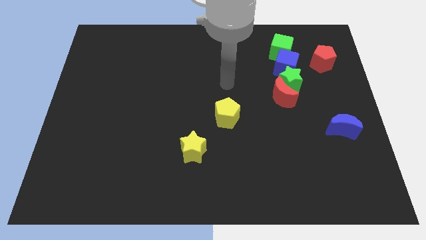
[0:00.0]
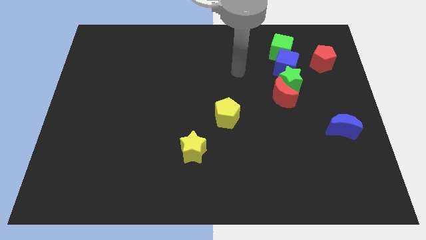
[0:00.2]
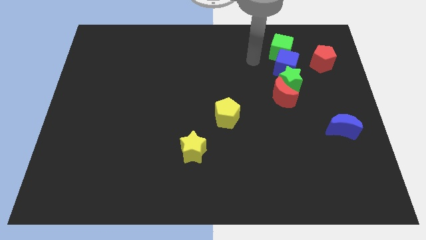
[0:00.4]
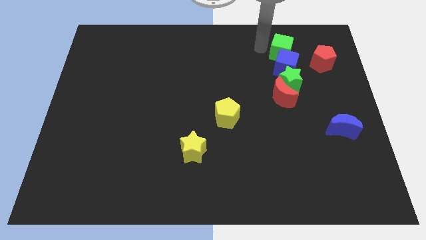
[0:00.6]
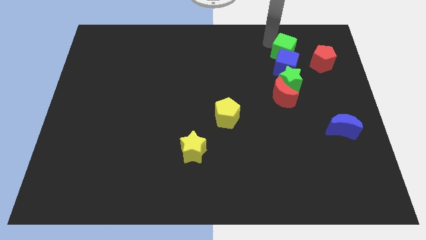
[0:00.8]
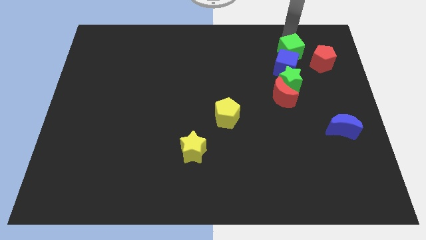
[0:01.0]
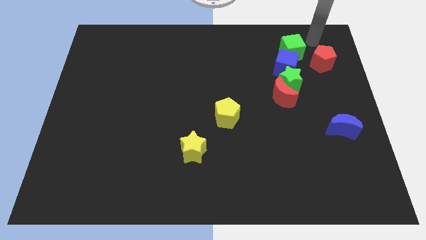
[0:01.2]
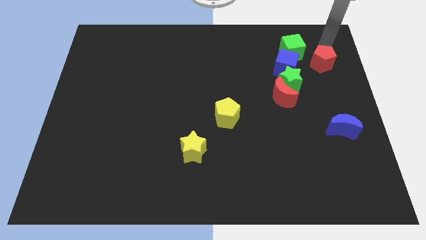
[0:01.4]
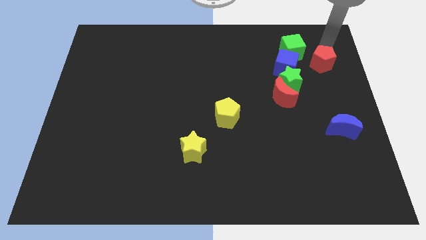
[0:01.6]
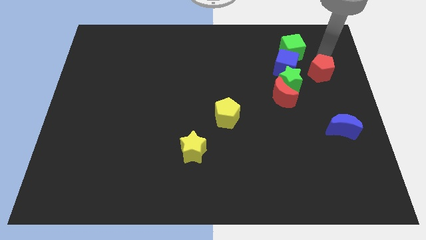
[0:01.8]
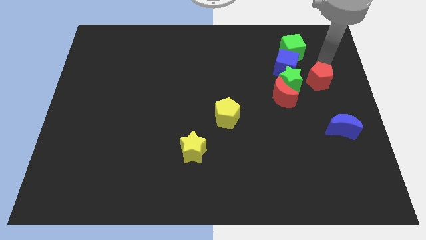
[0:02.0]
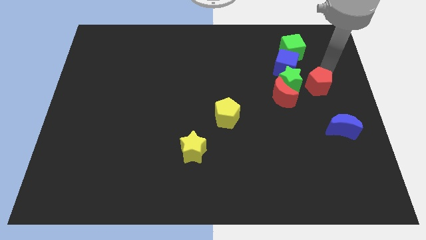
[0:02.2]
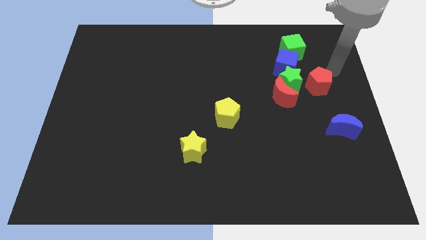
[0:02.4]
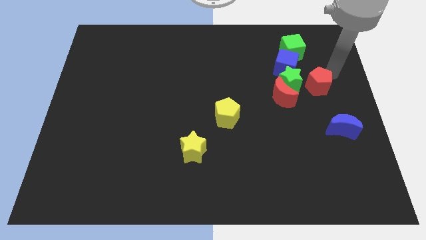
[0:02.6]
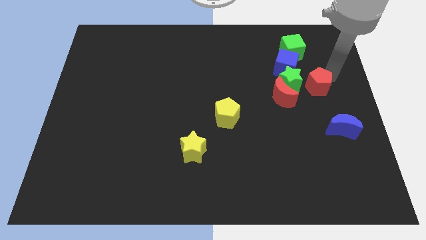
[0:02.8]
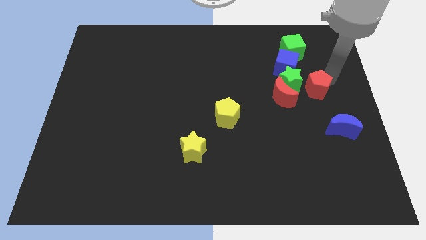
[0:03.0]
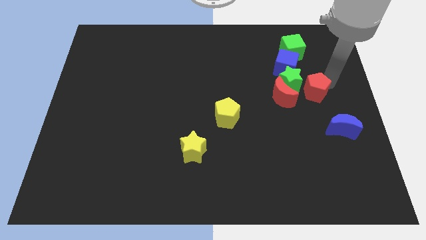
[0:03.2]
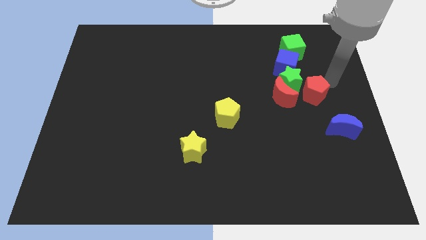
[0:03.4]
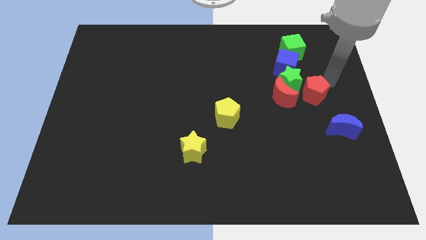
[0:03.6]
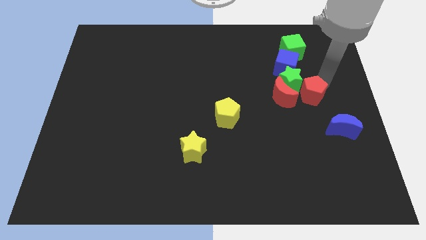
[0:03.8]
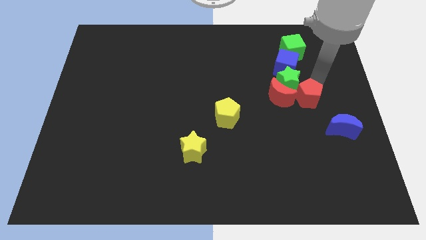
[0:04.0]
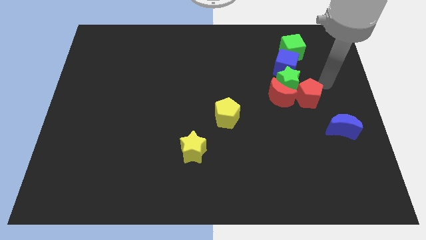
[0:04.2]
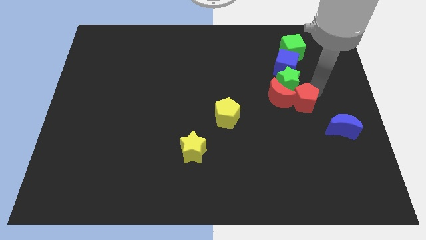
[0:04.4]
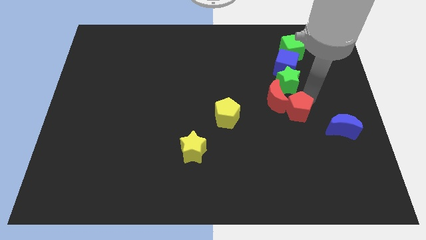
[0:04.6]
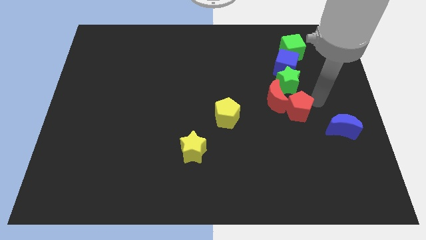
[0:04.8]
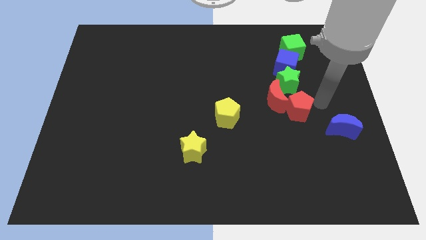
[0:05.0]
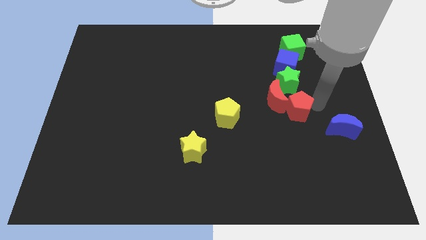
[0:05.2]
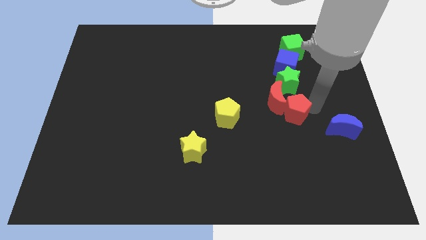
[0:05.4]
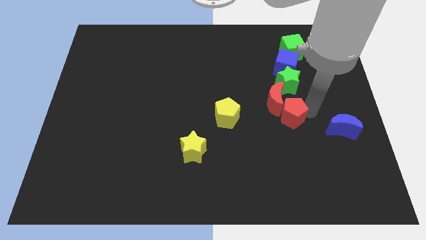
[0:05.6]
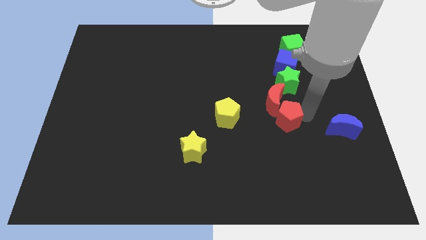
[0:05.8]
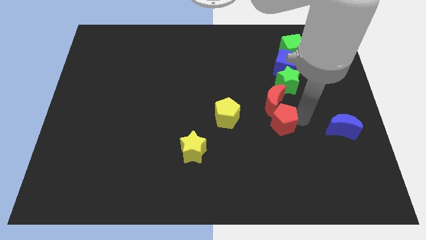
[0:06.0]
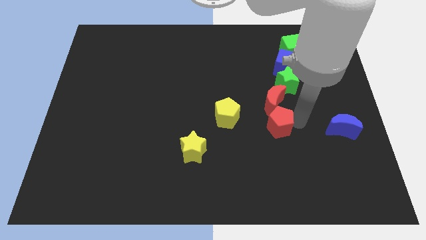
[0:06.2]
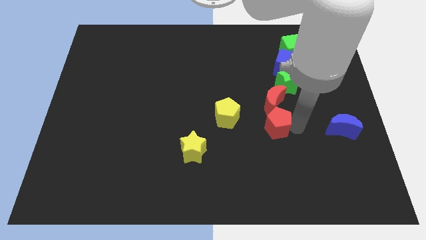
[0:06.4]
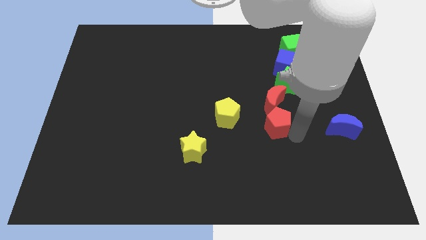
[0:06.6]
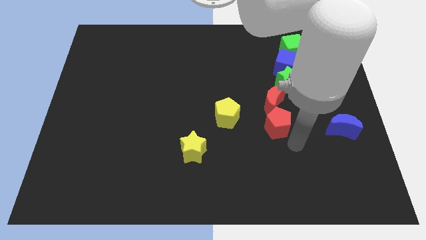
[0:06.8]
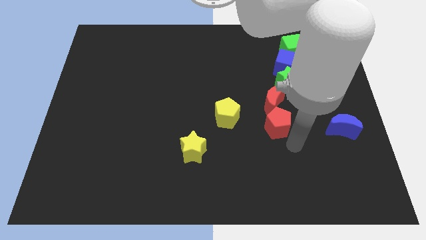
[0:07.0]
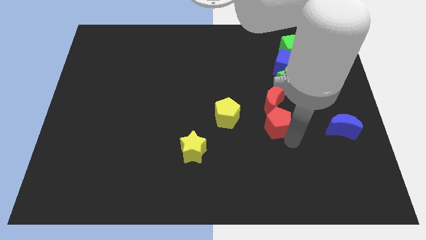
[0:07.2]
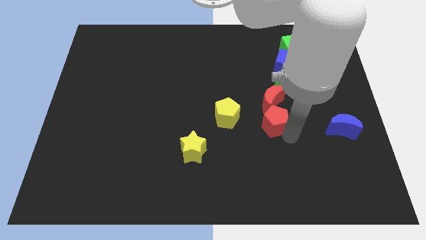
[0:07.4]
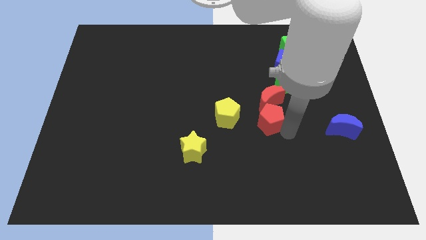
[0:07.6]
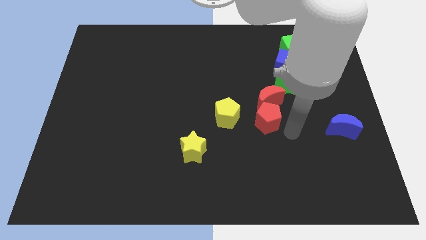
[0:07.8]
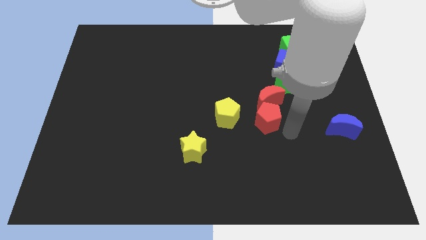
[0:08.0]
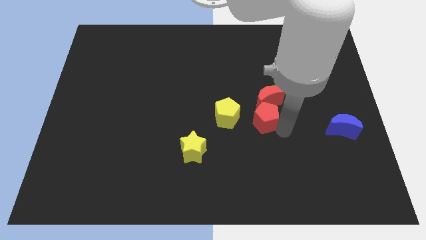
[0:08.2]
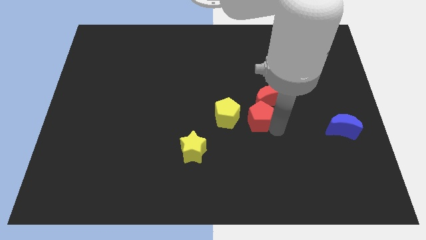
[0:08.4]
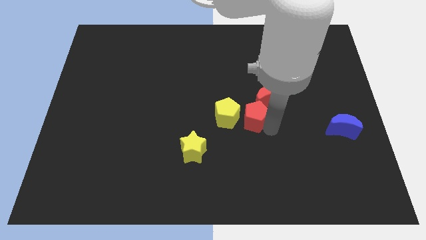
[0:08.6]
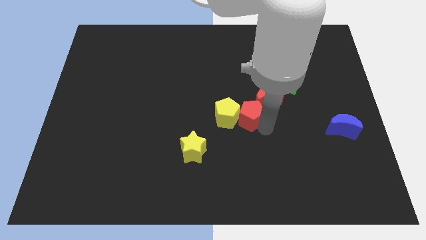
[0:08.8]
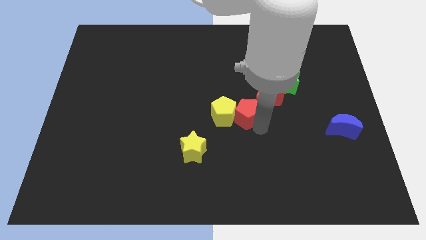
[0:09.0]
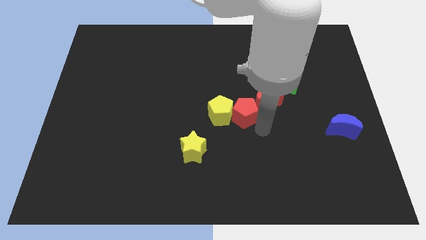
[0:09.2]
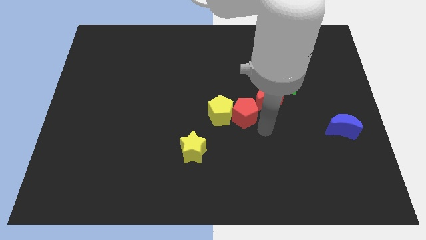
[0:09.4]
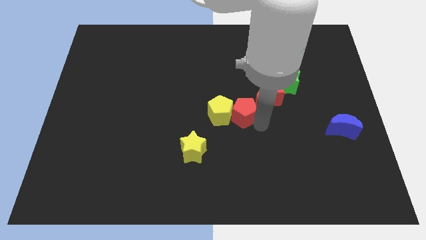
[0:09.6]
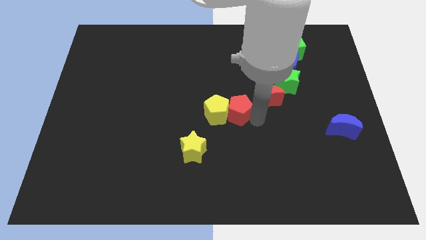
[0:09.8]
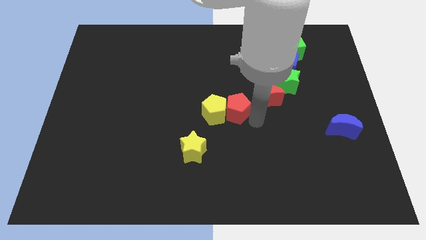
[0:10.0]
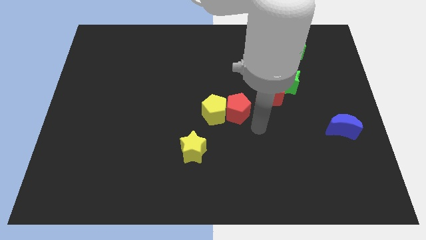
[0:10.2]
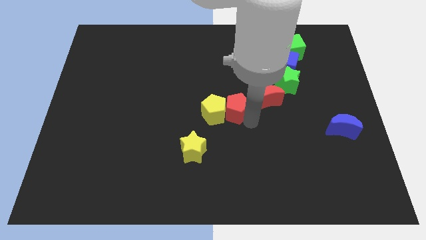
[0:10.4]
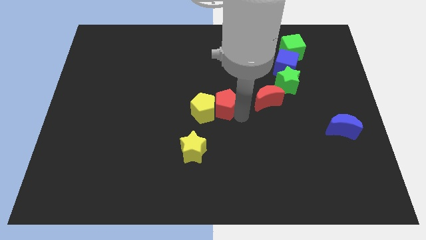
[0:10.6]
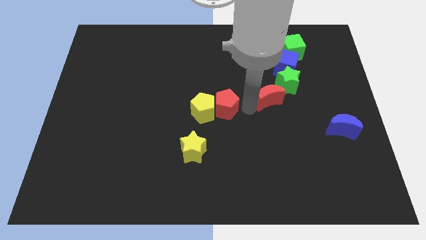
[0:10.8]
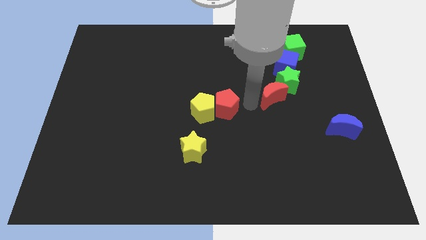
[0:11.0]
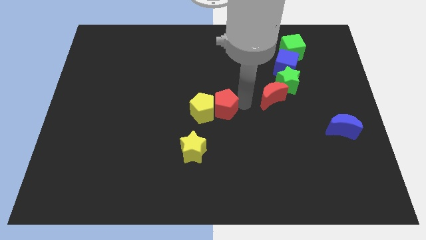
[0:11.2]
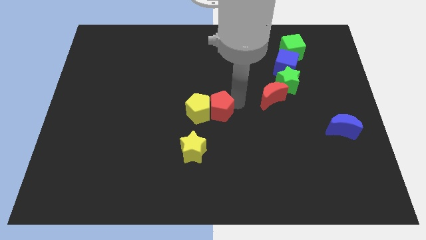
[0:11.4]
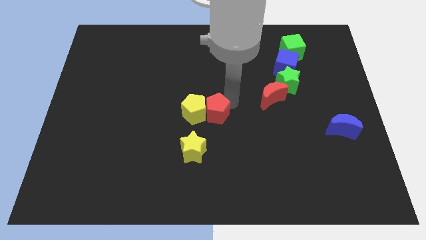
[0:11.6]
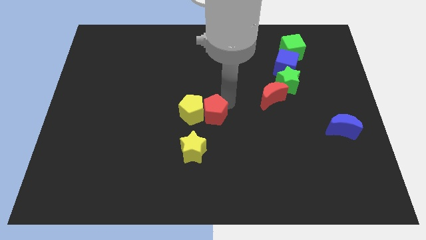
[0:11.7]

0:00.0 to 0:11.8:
put the red pentagon above the yellow star

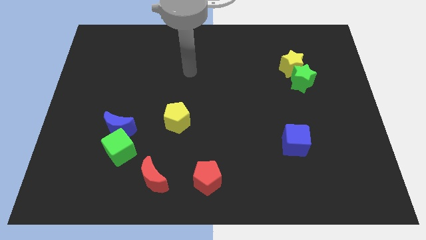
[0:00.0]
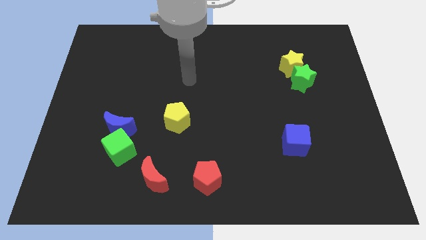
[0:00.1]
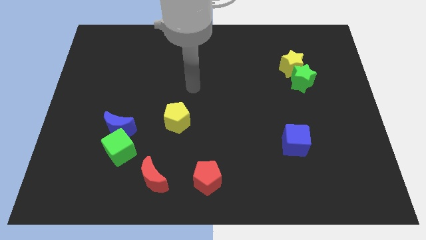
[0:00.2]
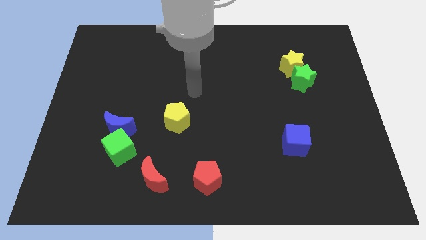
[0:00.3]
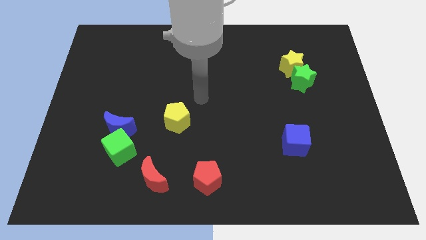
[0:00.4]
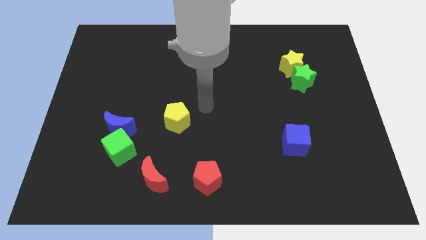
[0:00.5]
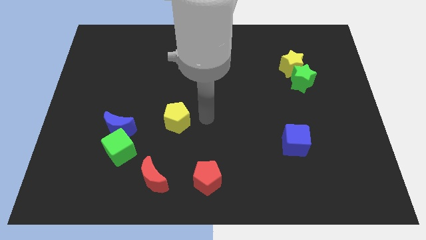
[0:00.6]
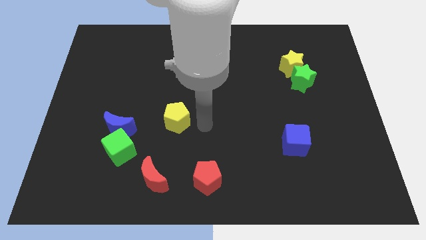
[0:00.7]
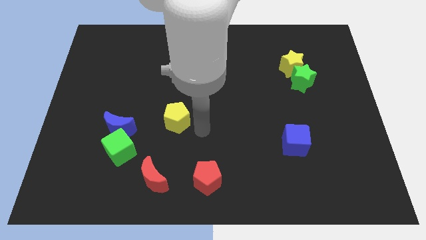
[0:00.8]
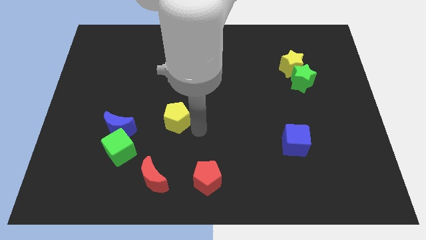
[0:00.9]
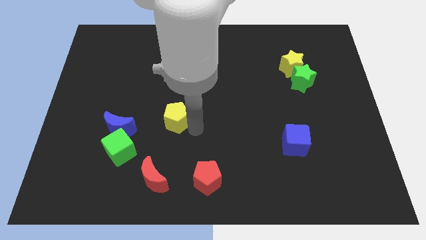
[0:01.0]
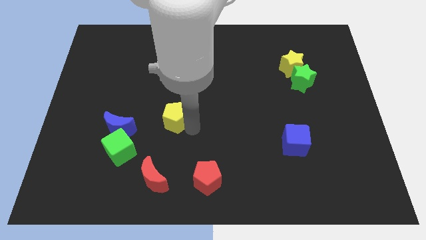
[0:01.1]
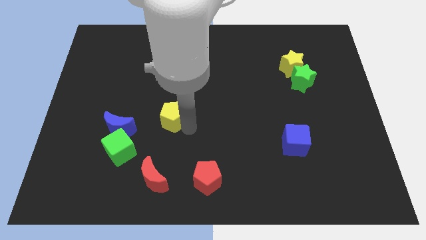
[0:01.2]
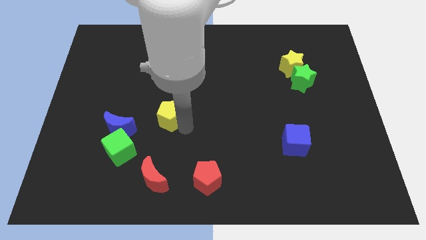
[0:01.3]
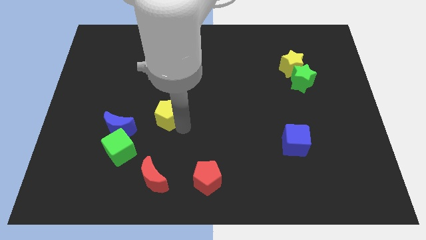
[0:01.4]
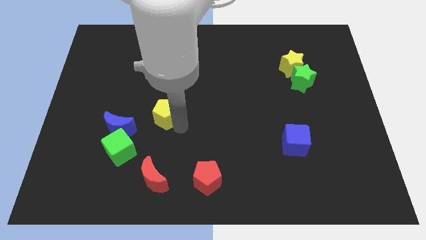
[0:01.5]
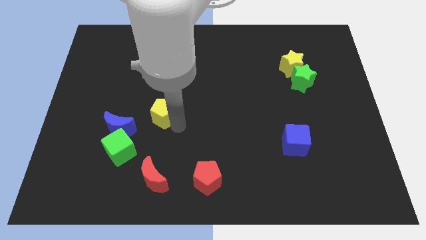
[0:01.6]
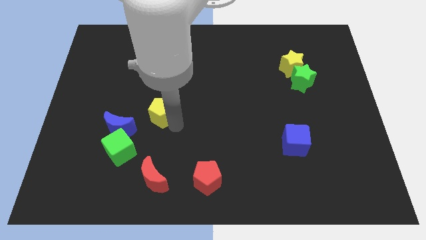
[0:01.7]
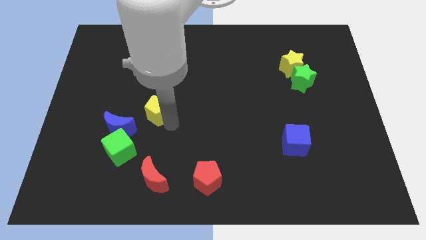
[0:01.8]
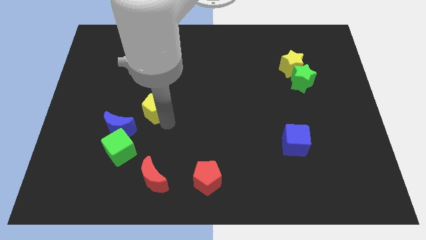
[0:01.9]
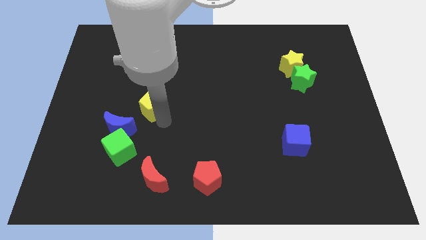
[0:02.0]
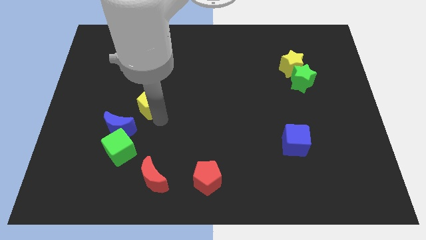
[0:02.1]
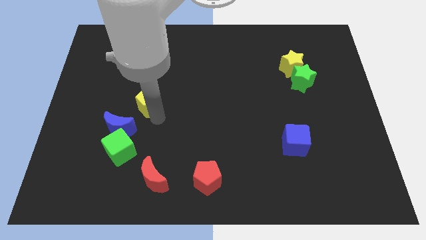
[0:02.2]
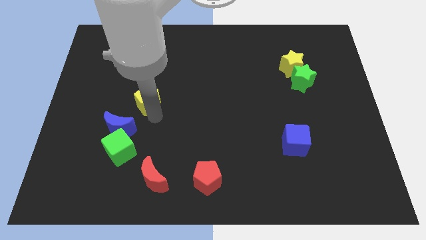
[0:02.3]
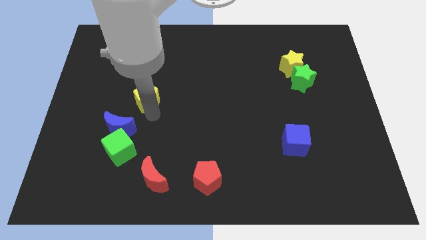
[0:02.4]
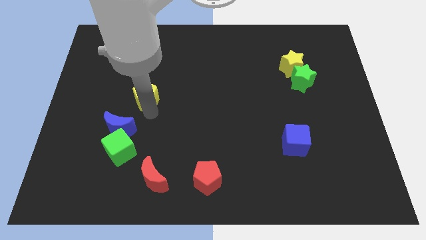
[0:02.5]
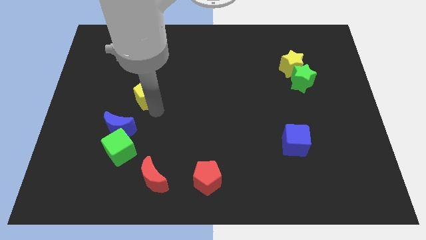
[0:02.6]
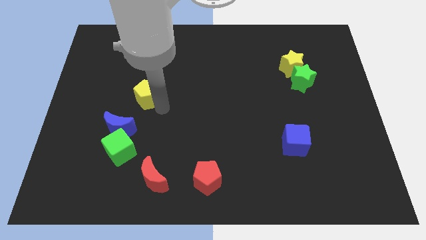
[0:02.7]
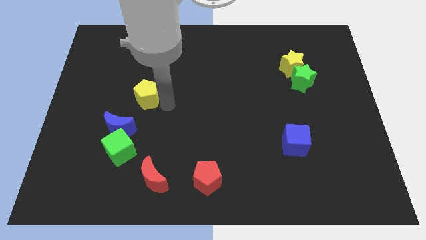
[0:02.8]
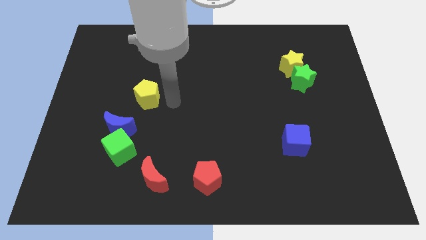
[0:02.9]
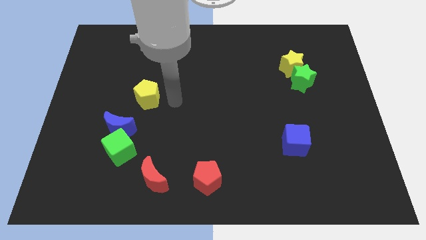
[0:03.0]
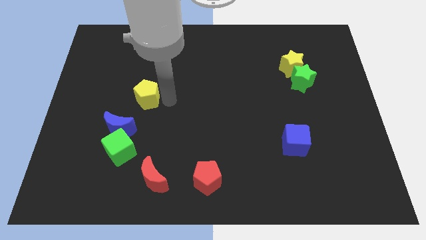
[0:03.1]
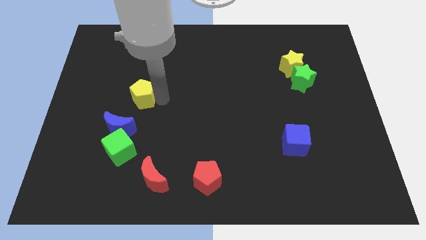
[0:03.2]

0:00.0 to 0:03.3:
push the yellow pentagon to the top of the blue moon
